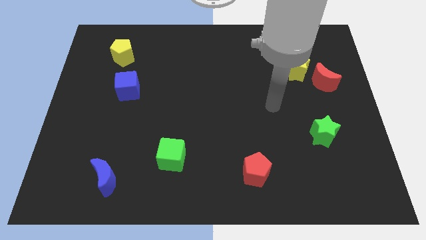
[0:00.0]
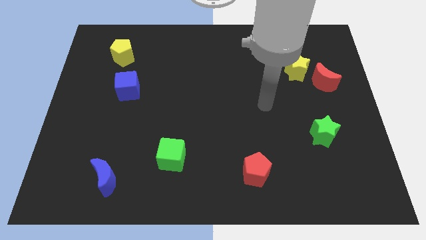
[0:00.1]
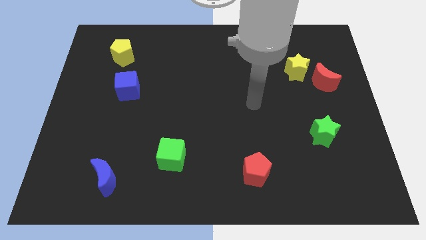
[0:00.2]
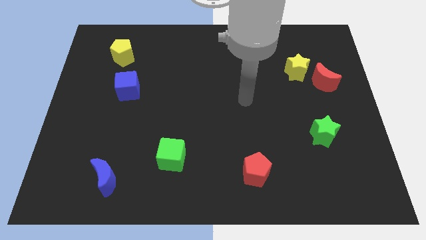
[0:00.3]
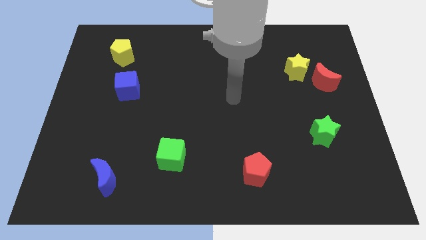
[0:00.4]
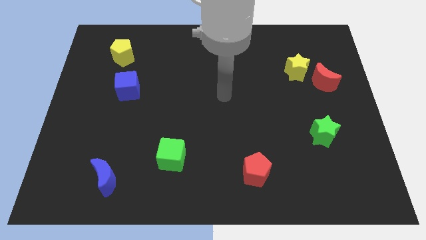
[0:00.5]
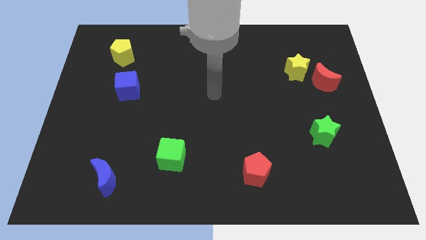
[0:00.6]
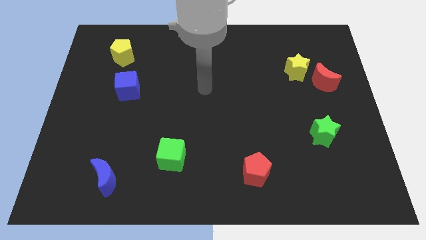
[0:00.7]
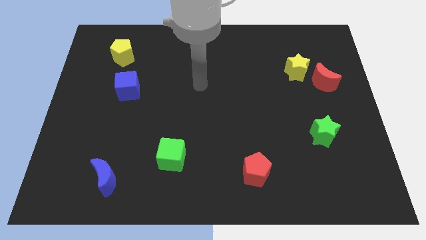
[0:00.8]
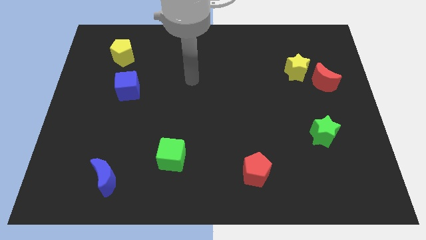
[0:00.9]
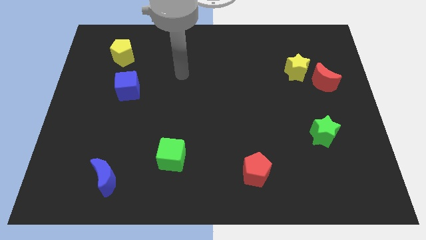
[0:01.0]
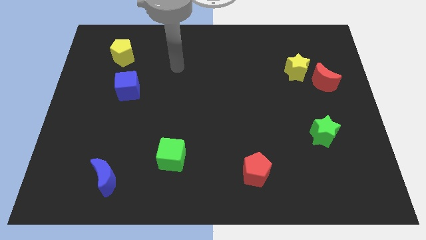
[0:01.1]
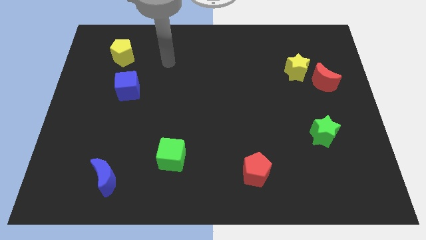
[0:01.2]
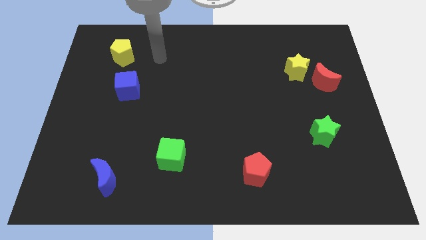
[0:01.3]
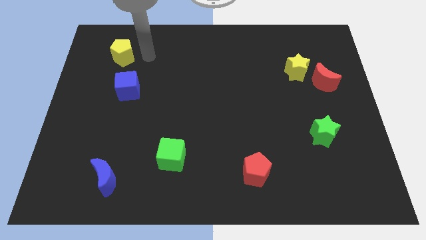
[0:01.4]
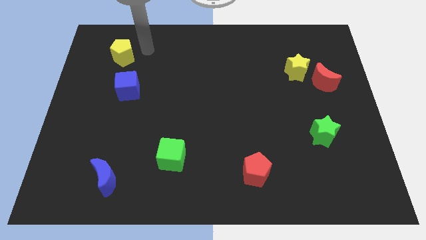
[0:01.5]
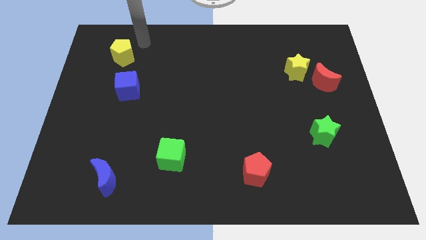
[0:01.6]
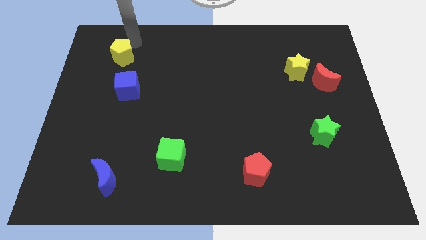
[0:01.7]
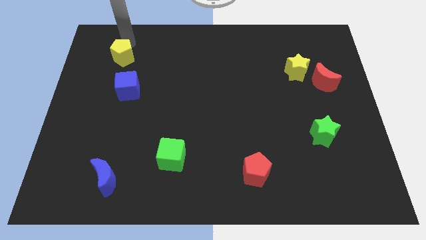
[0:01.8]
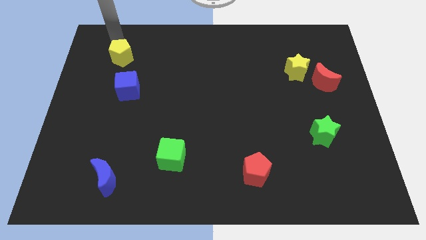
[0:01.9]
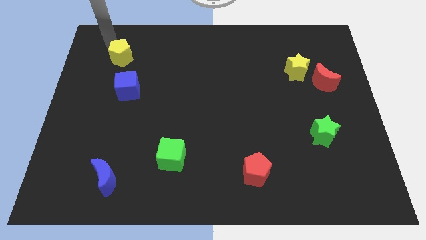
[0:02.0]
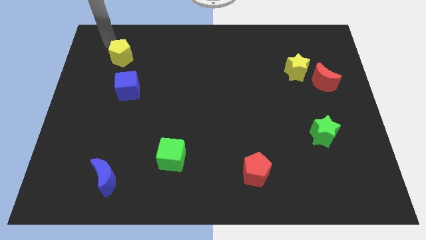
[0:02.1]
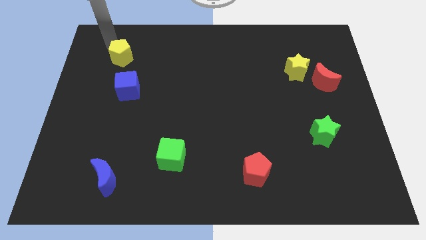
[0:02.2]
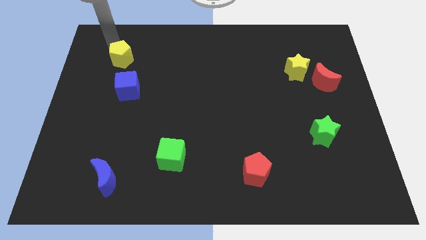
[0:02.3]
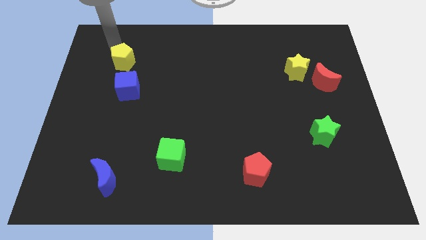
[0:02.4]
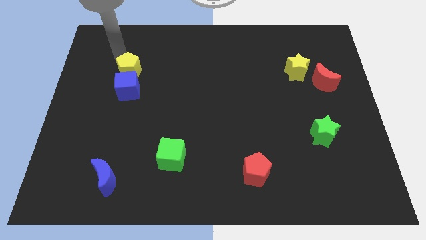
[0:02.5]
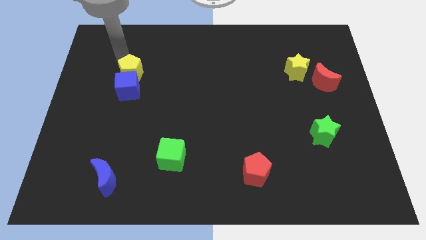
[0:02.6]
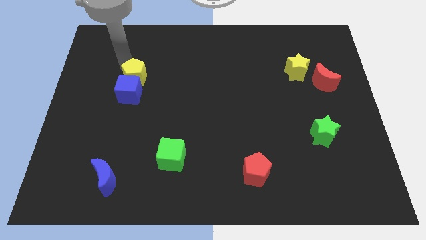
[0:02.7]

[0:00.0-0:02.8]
move the yellow pentagon slightly down and right

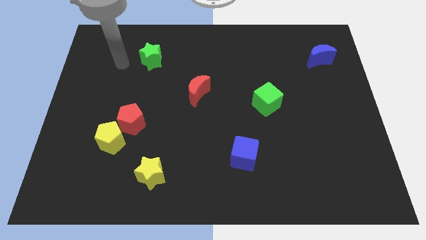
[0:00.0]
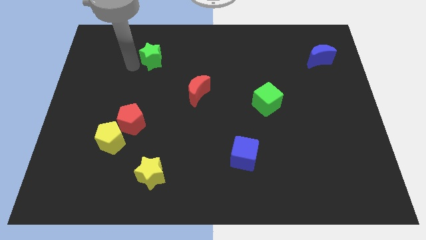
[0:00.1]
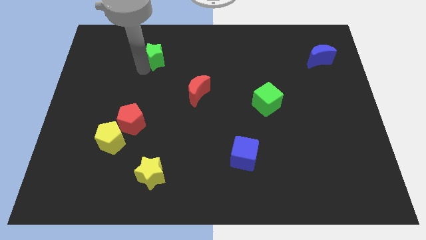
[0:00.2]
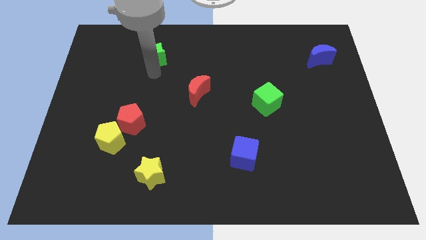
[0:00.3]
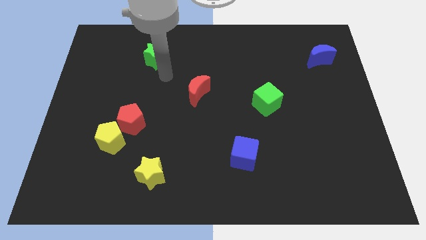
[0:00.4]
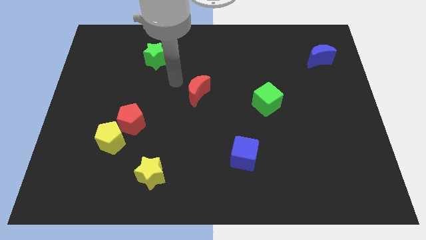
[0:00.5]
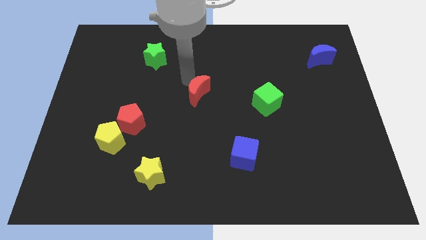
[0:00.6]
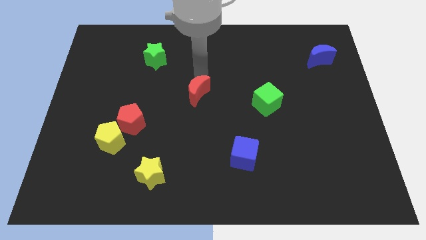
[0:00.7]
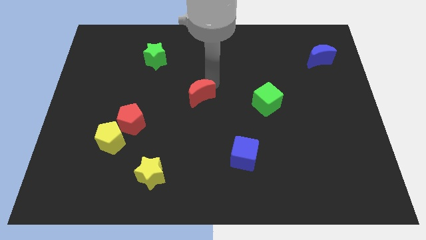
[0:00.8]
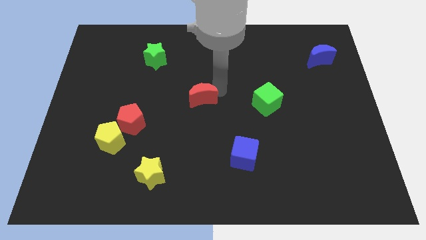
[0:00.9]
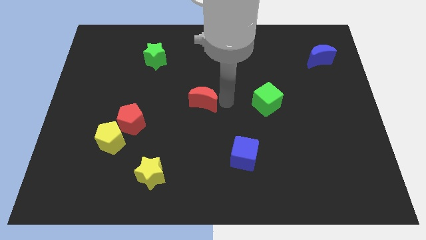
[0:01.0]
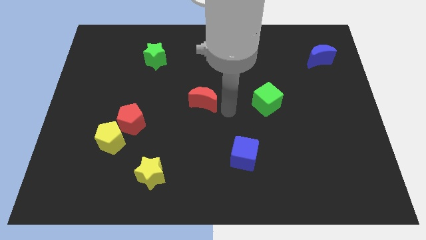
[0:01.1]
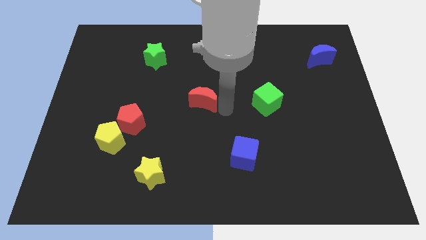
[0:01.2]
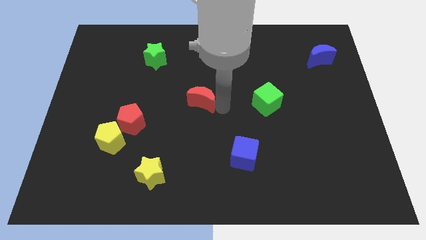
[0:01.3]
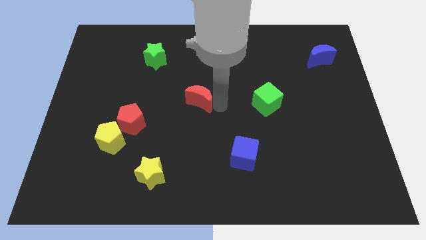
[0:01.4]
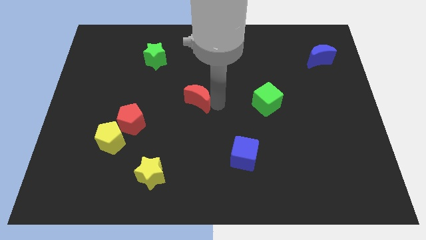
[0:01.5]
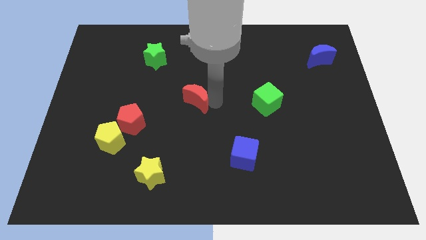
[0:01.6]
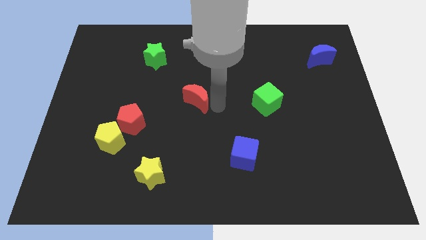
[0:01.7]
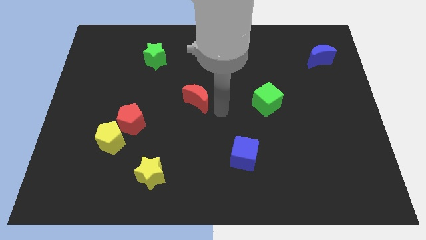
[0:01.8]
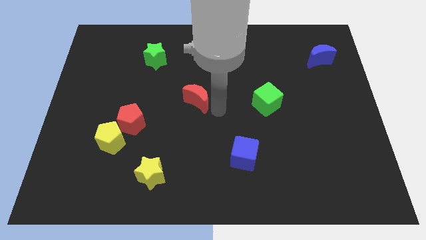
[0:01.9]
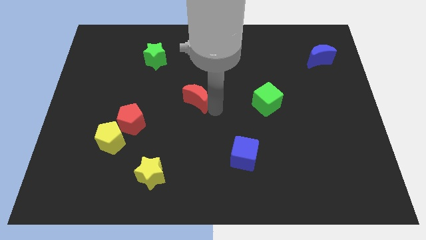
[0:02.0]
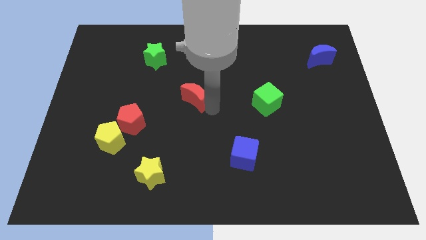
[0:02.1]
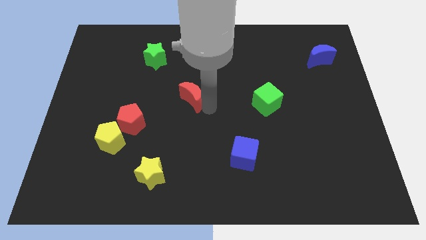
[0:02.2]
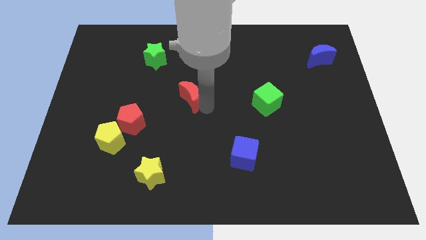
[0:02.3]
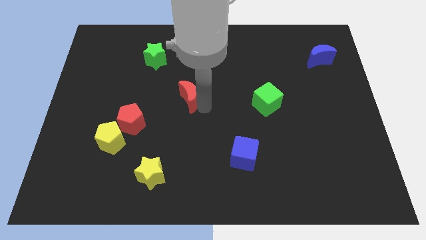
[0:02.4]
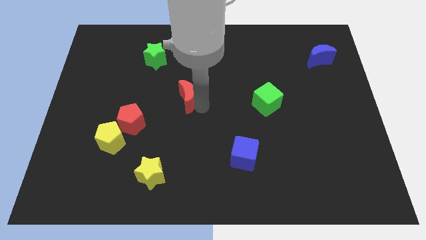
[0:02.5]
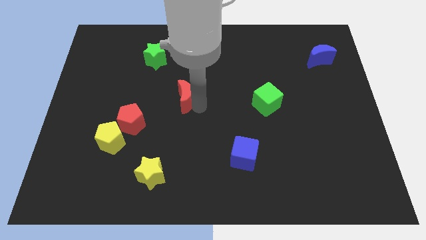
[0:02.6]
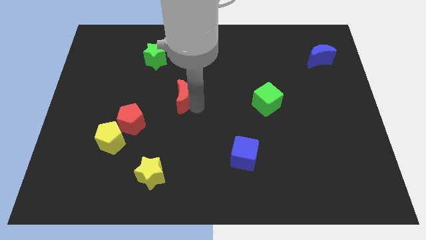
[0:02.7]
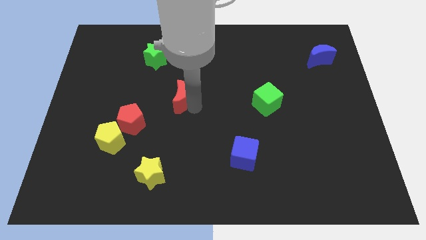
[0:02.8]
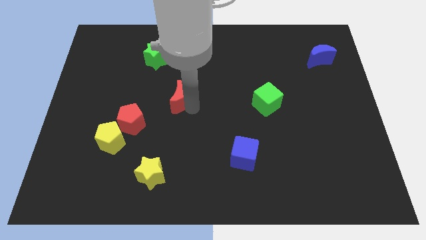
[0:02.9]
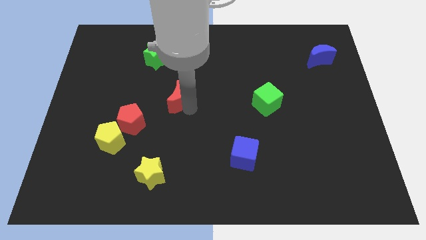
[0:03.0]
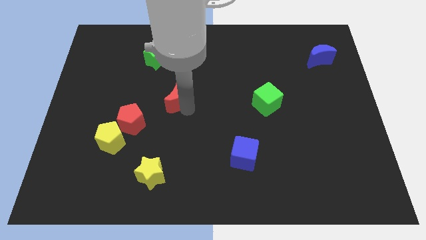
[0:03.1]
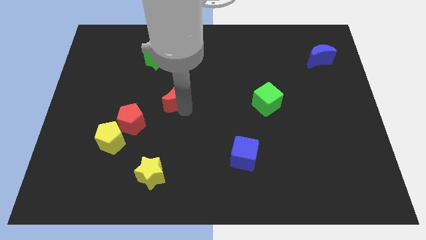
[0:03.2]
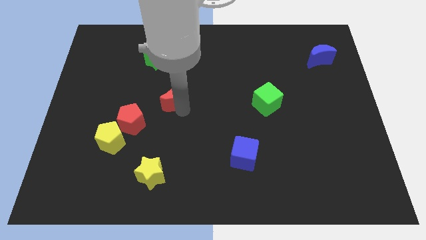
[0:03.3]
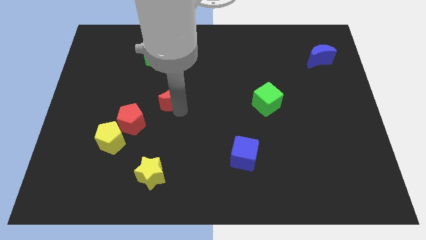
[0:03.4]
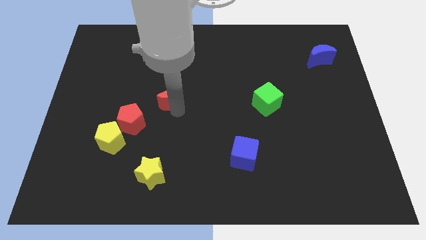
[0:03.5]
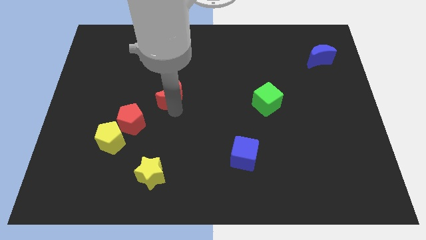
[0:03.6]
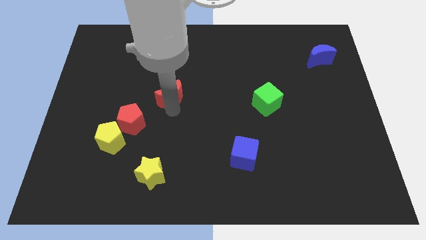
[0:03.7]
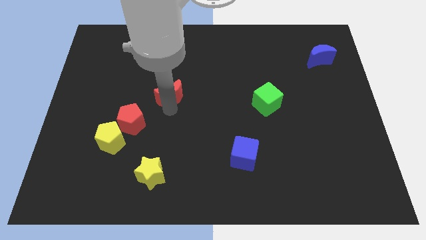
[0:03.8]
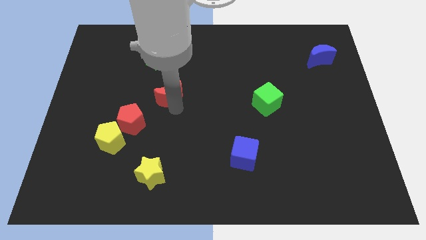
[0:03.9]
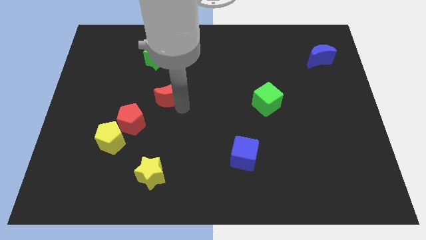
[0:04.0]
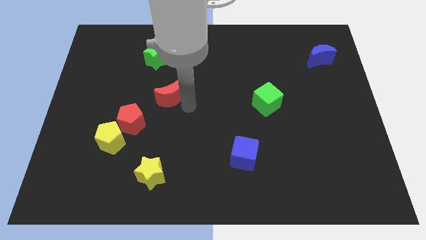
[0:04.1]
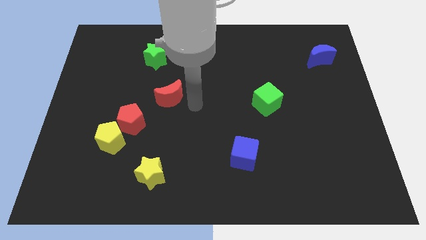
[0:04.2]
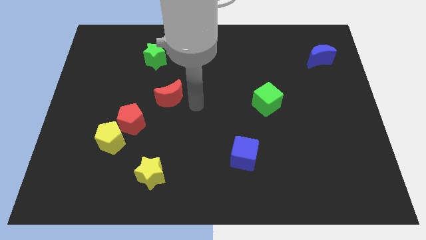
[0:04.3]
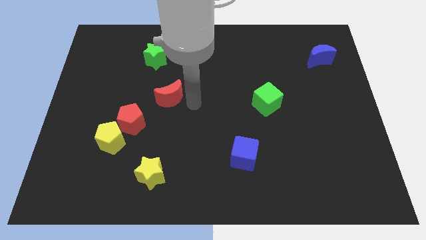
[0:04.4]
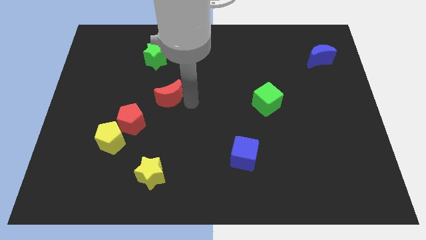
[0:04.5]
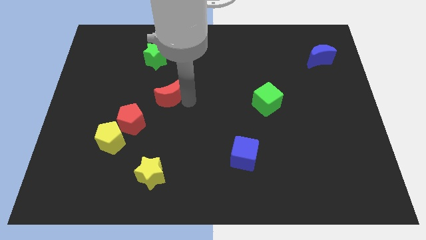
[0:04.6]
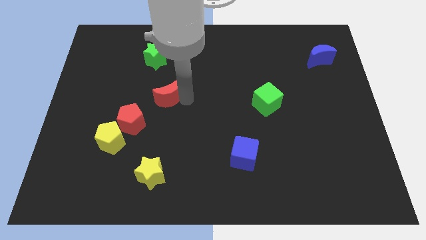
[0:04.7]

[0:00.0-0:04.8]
move the red moon left a little bit

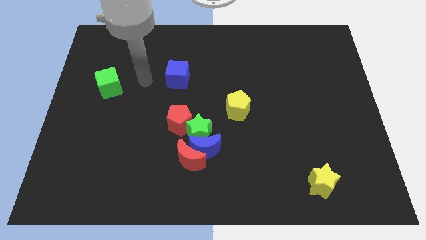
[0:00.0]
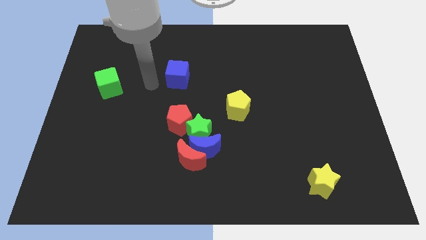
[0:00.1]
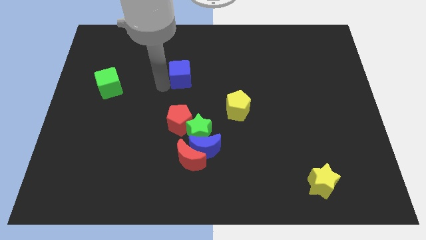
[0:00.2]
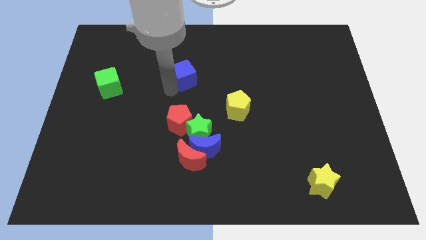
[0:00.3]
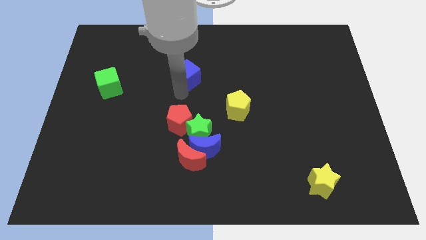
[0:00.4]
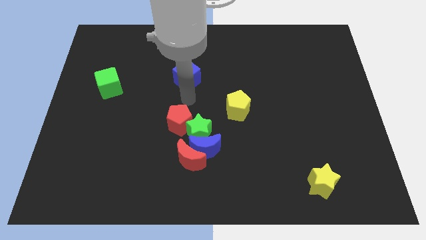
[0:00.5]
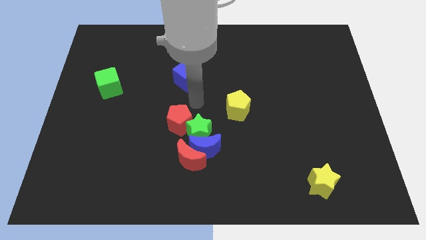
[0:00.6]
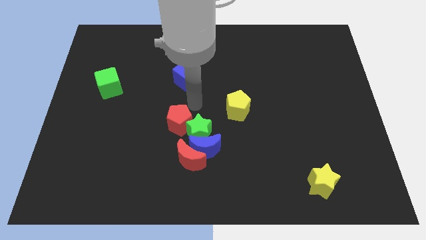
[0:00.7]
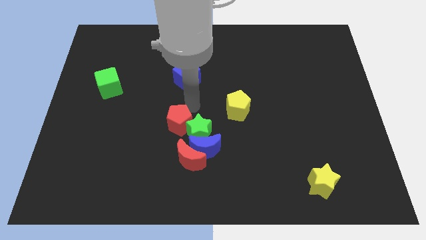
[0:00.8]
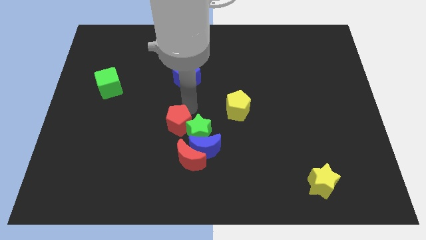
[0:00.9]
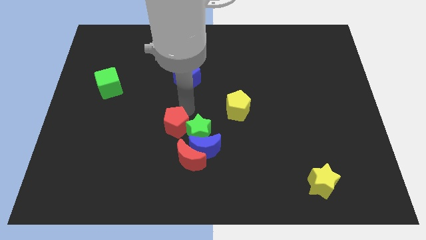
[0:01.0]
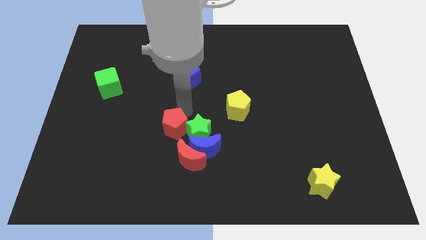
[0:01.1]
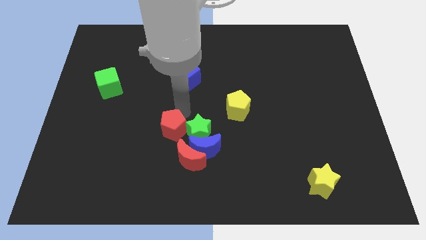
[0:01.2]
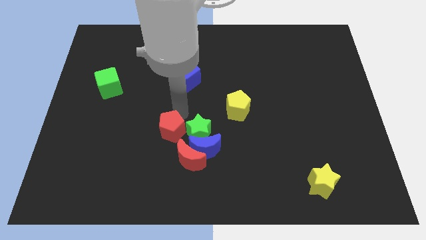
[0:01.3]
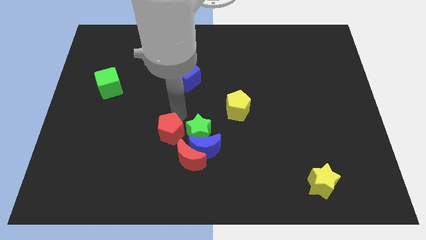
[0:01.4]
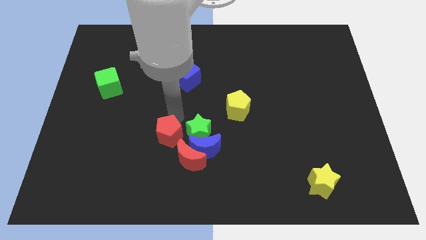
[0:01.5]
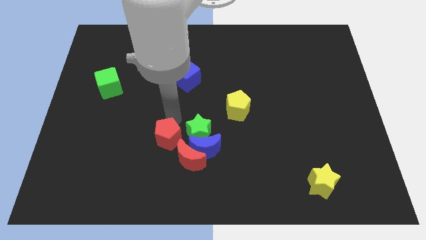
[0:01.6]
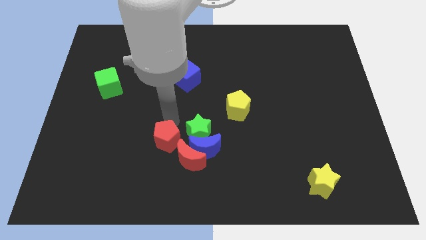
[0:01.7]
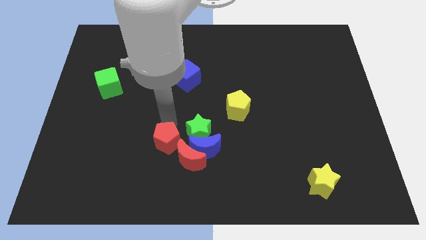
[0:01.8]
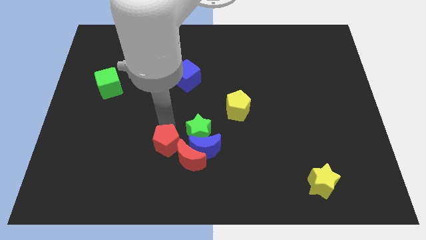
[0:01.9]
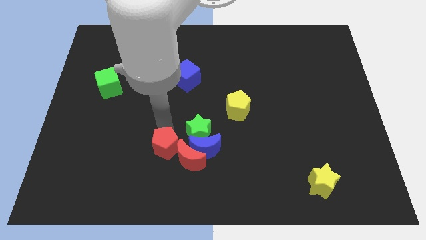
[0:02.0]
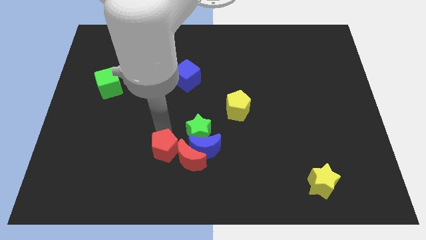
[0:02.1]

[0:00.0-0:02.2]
push the red pentagon downwards and to the left a bit
